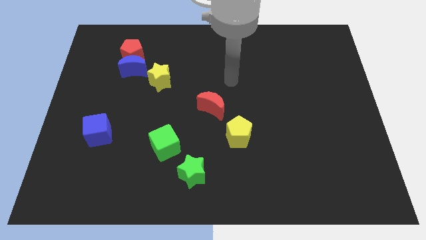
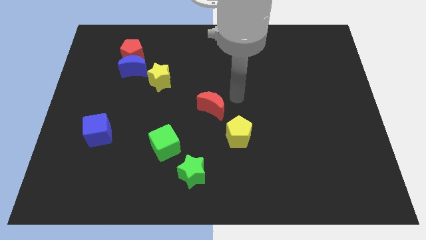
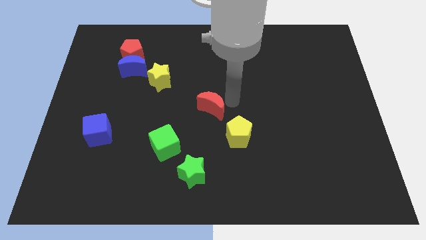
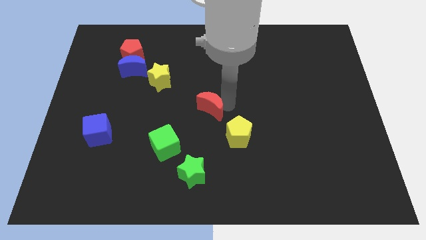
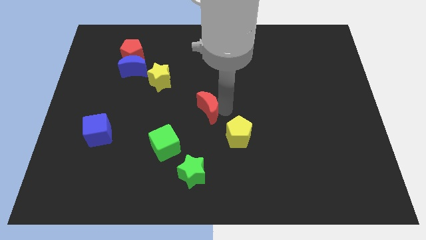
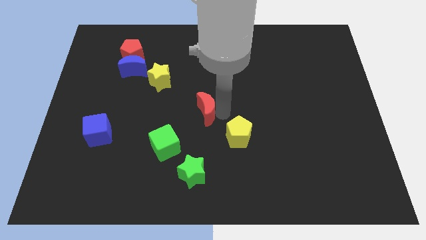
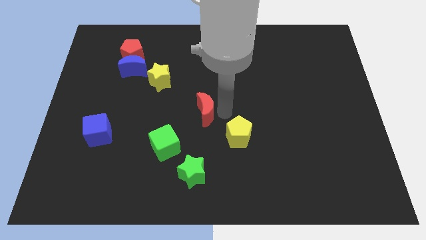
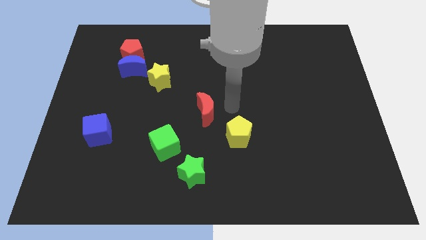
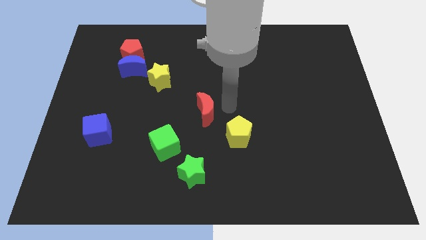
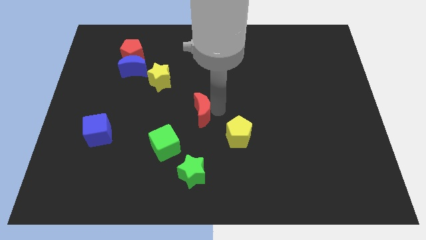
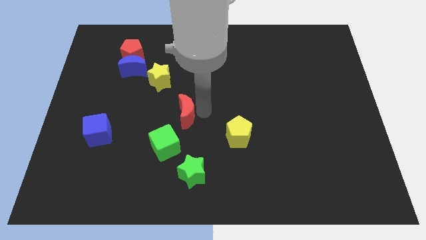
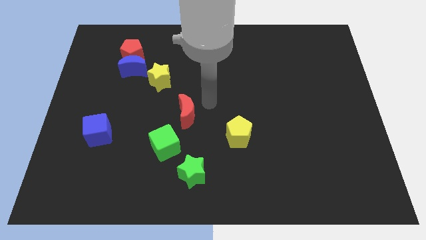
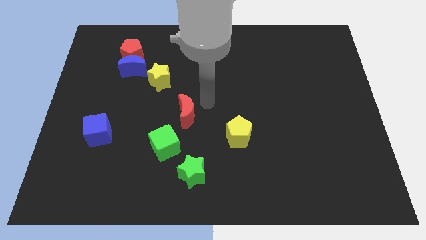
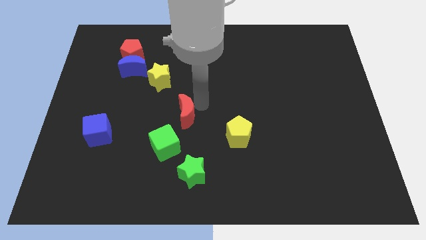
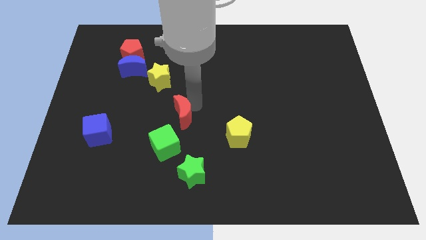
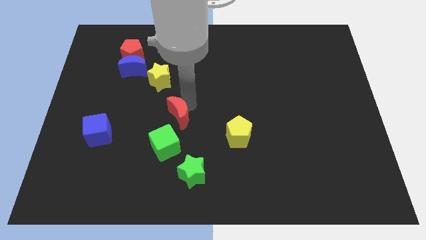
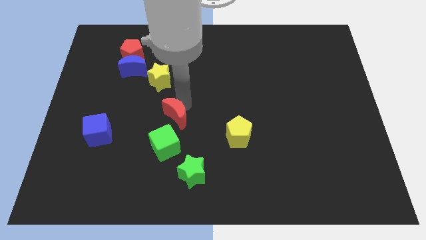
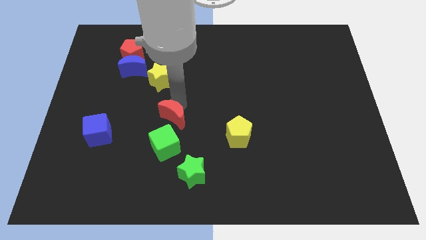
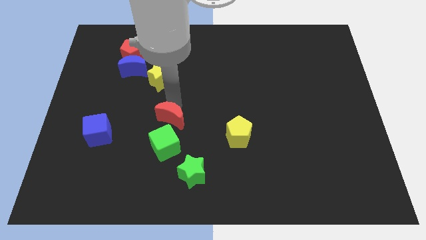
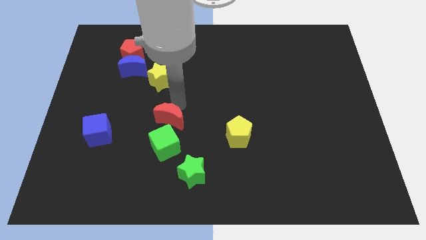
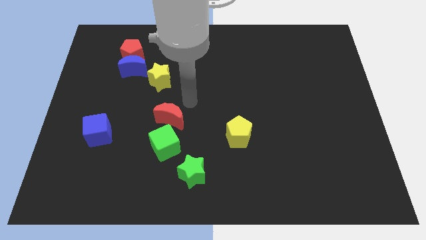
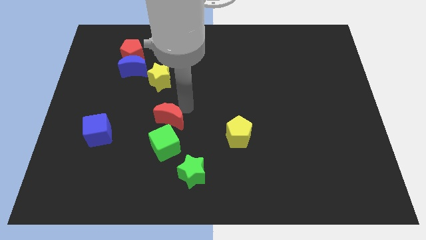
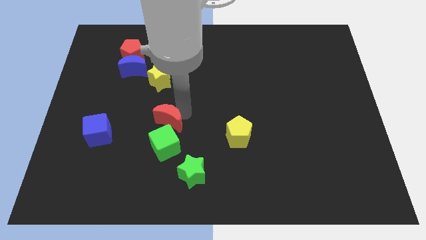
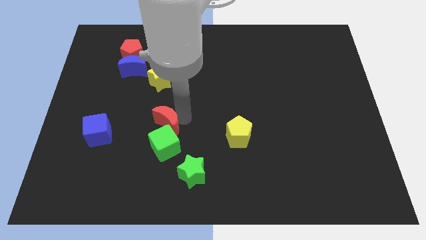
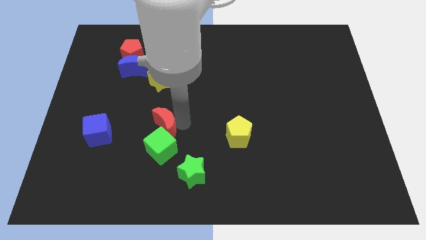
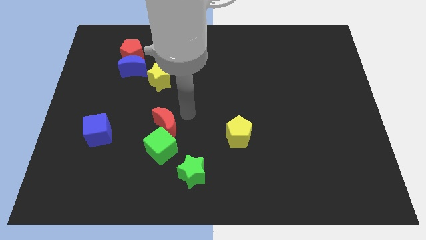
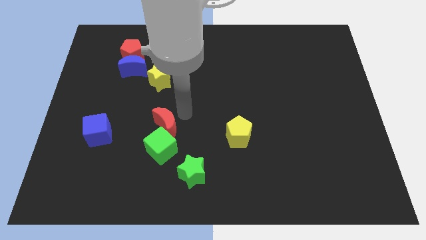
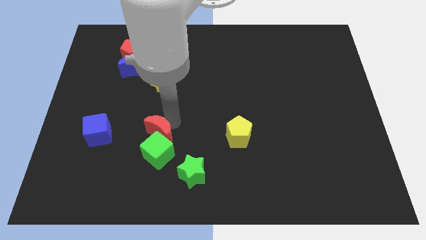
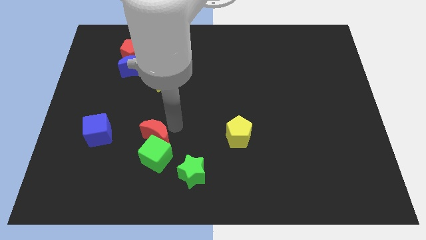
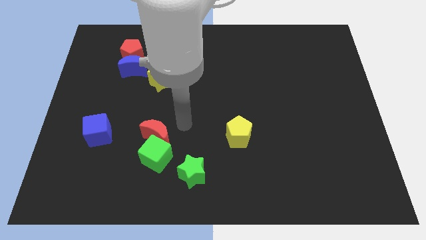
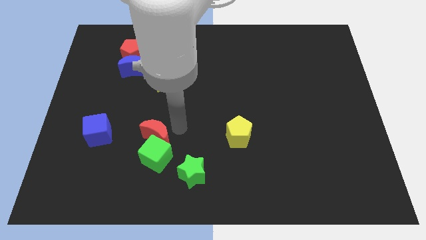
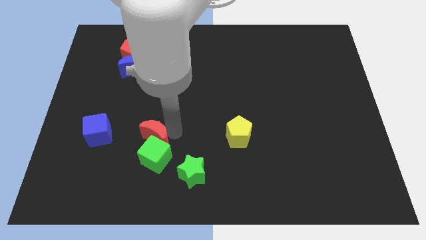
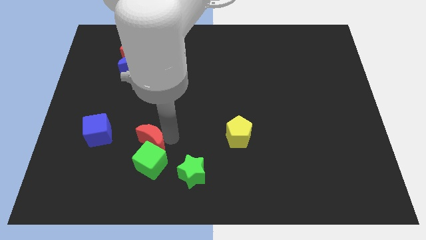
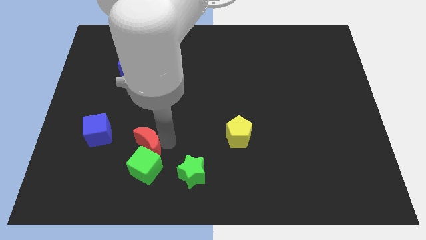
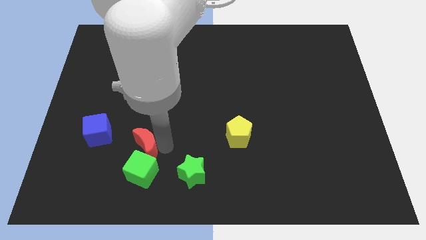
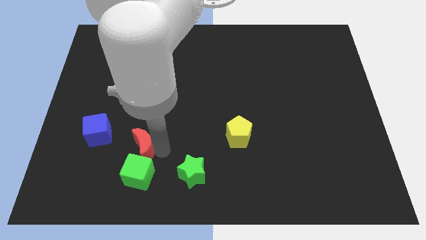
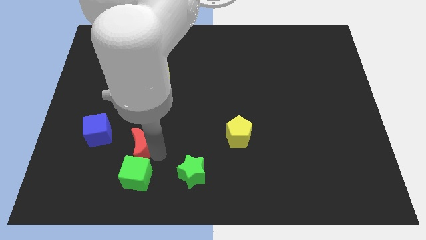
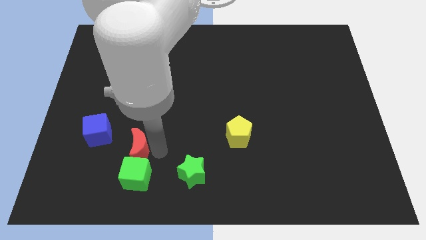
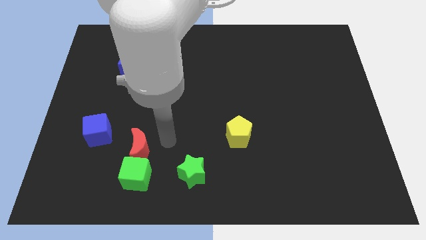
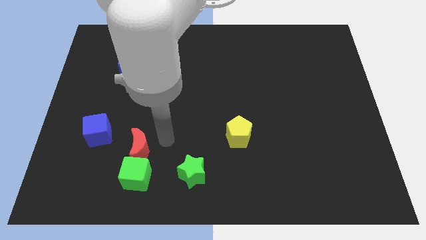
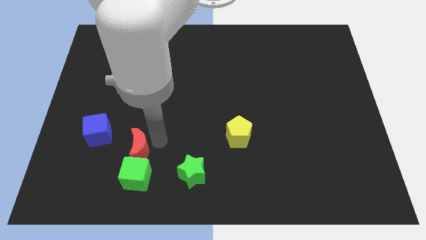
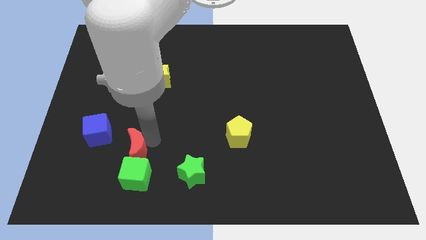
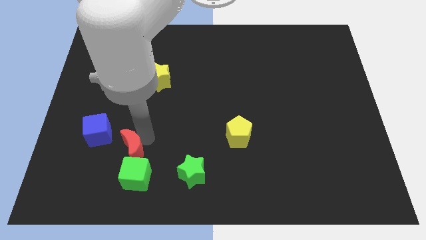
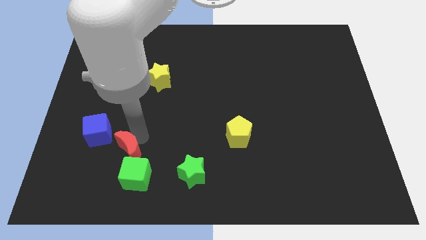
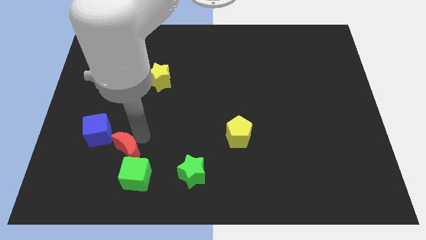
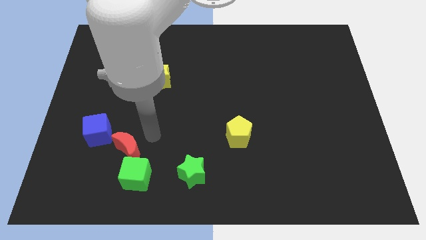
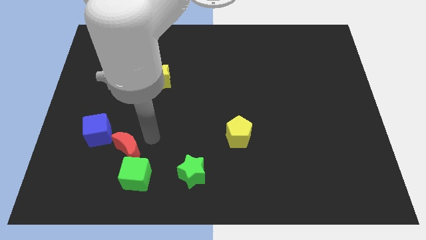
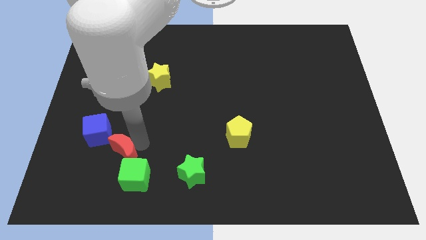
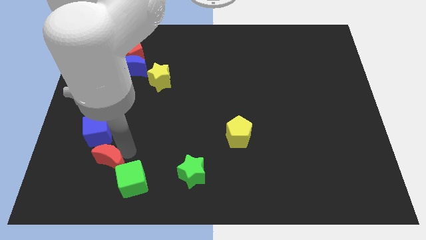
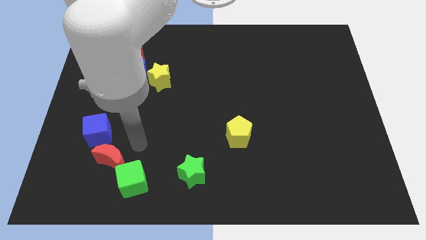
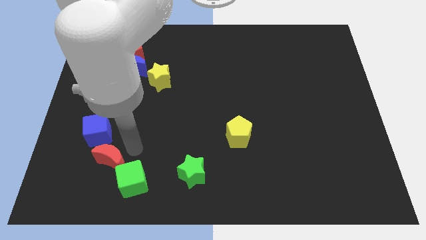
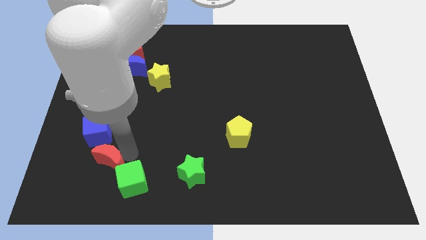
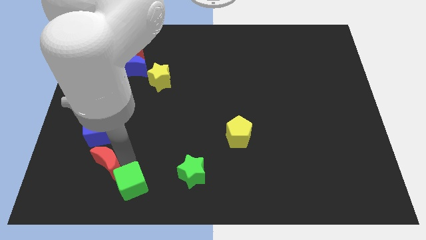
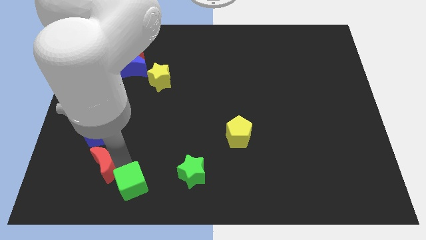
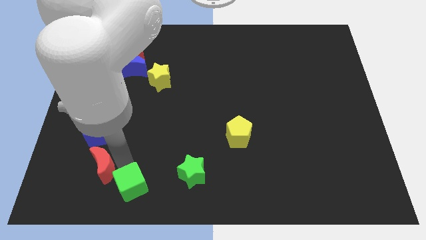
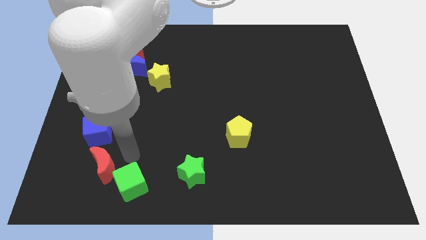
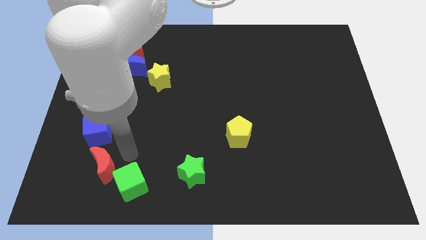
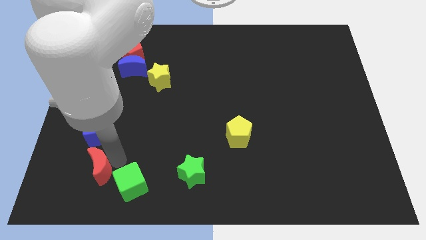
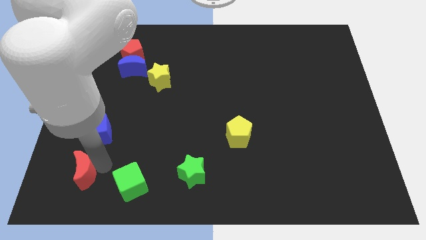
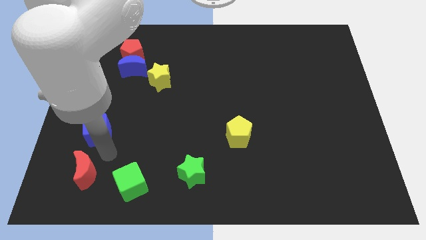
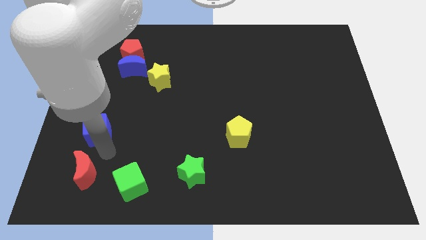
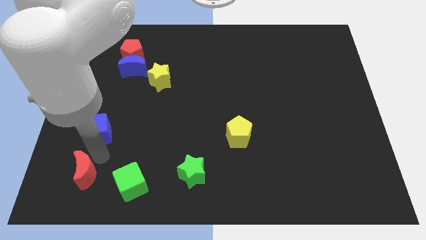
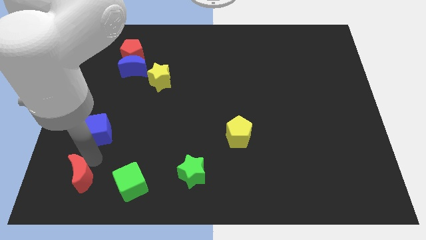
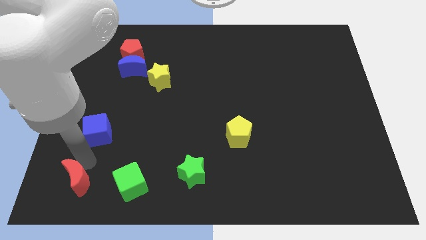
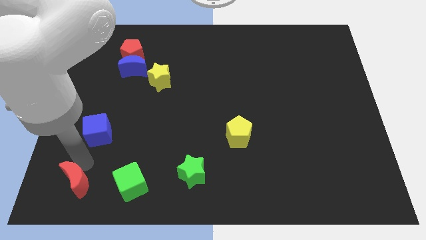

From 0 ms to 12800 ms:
push the red moon to the bottom left of the board
